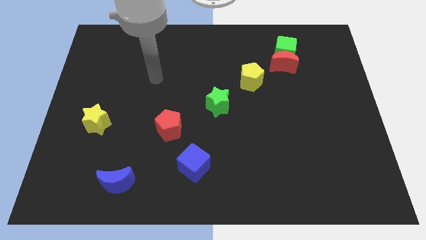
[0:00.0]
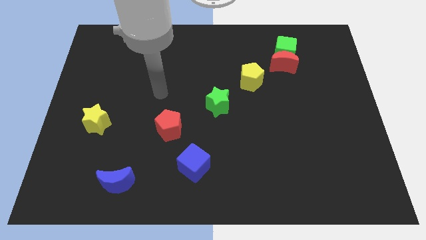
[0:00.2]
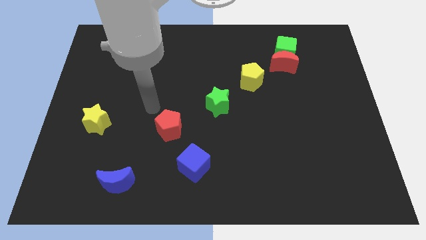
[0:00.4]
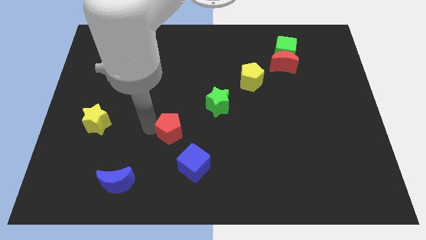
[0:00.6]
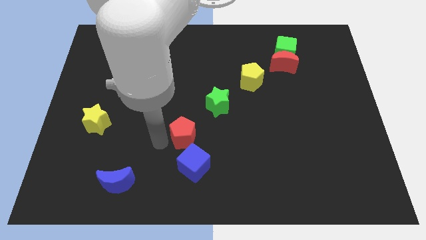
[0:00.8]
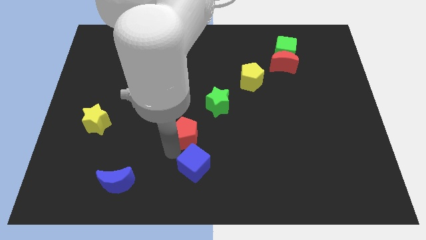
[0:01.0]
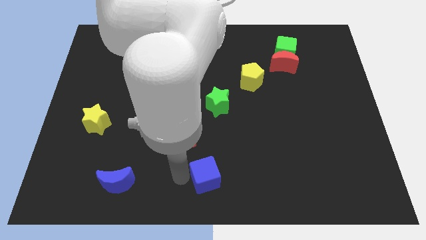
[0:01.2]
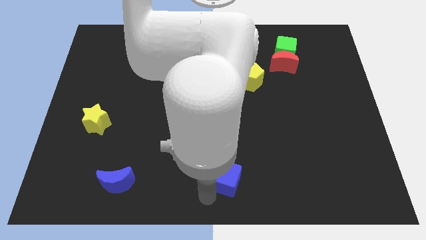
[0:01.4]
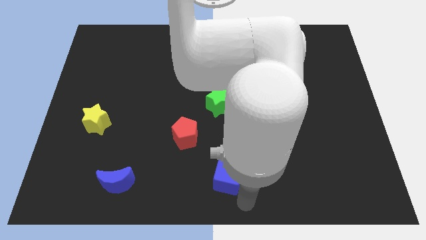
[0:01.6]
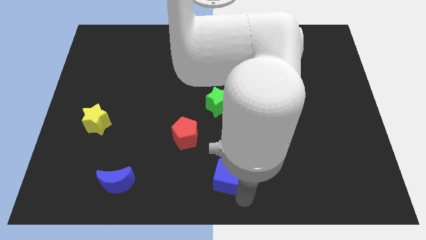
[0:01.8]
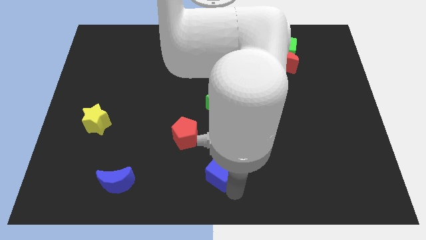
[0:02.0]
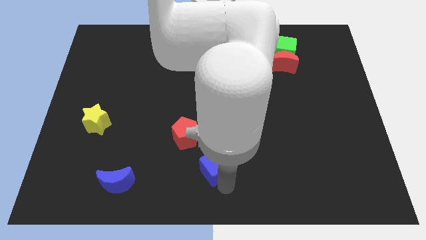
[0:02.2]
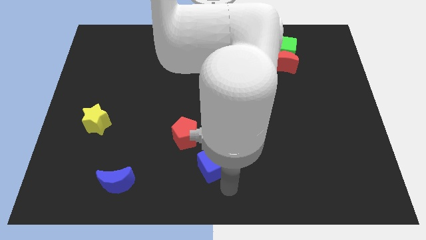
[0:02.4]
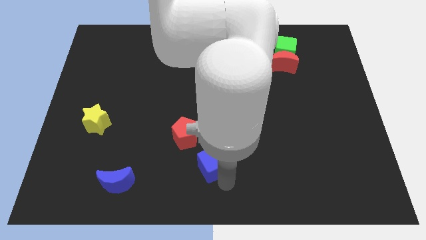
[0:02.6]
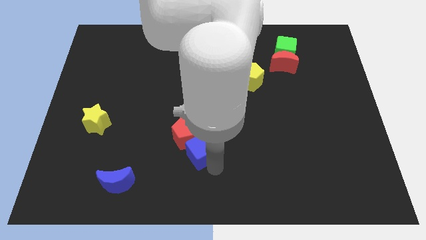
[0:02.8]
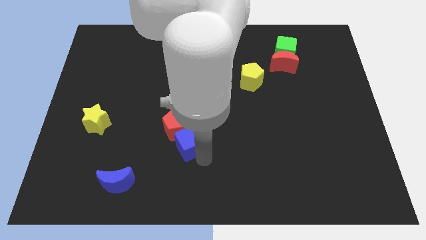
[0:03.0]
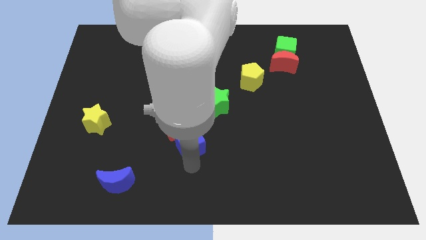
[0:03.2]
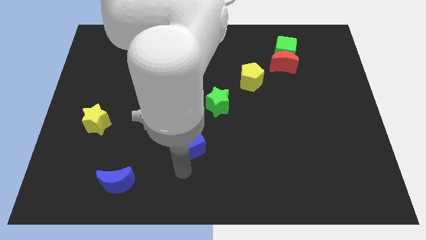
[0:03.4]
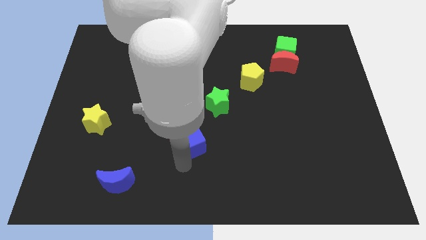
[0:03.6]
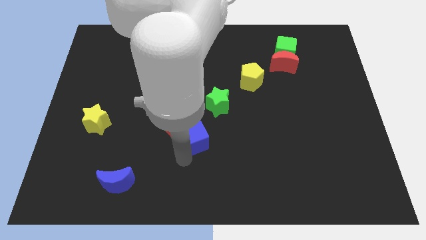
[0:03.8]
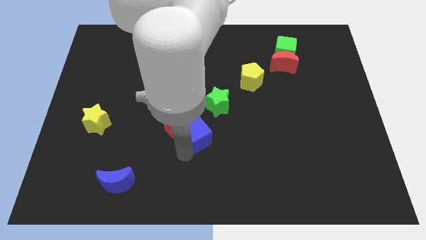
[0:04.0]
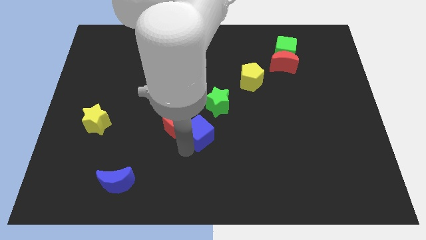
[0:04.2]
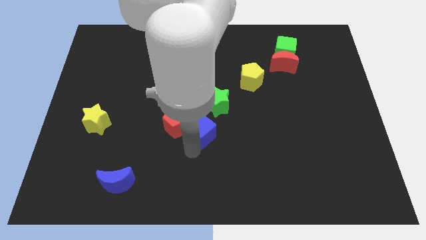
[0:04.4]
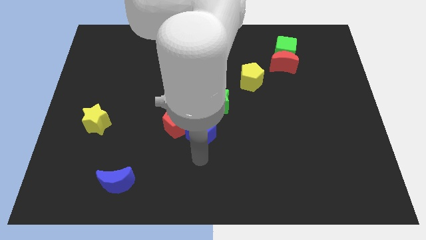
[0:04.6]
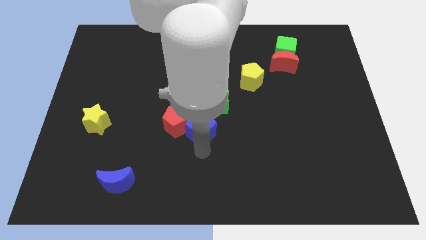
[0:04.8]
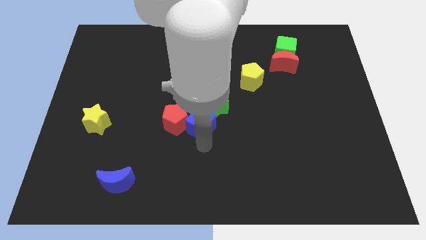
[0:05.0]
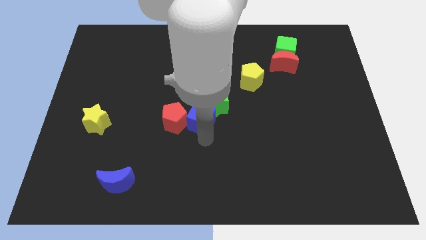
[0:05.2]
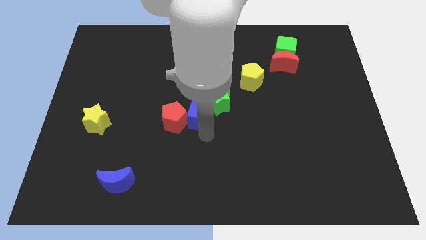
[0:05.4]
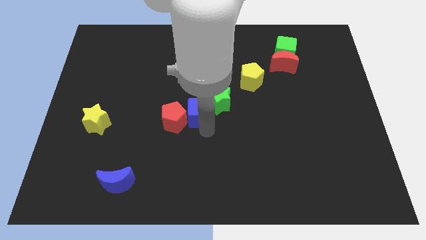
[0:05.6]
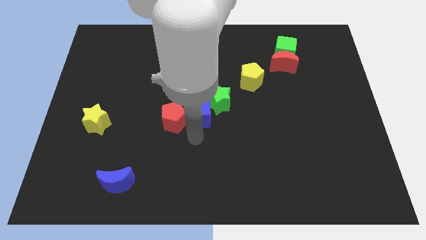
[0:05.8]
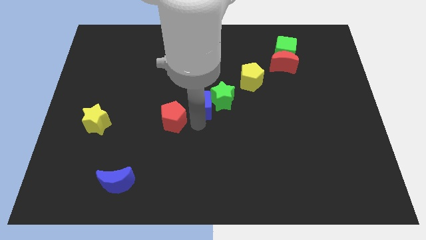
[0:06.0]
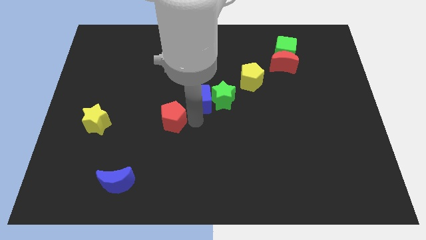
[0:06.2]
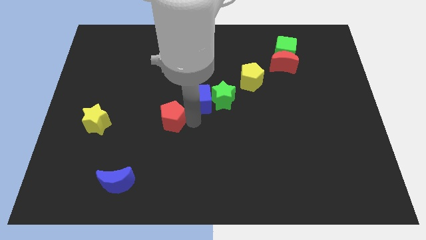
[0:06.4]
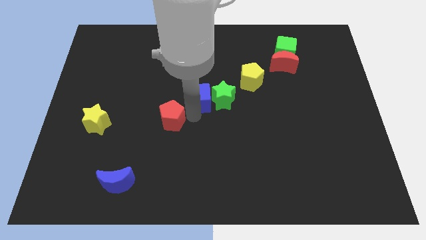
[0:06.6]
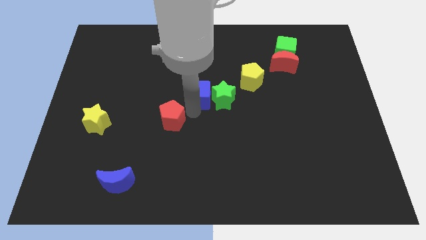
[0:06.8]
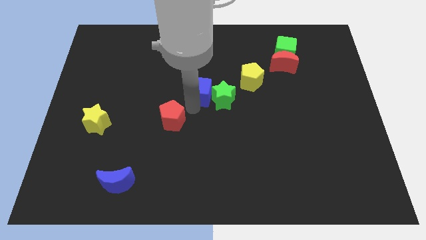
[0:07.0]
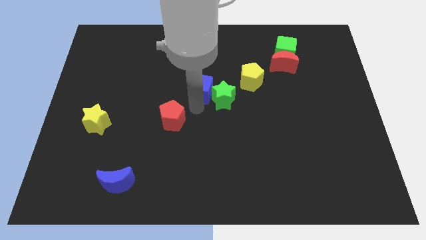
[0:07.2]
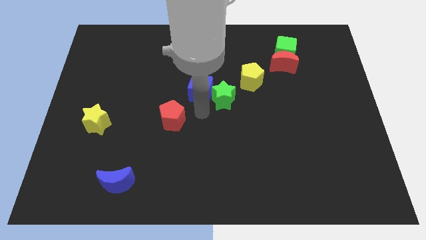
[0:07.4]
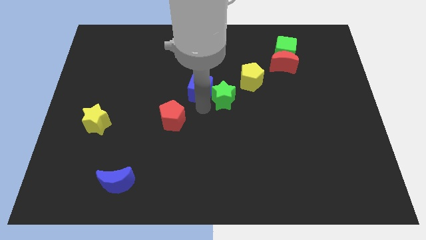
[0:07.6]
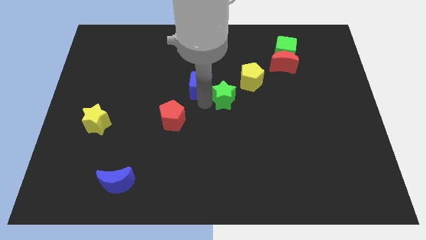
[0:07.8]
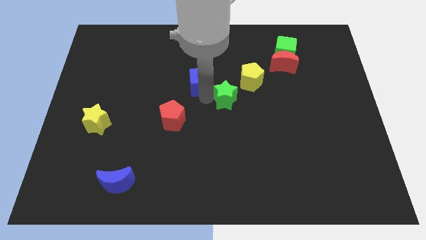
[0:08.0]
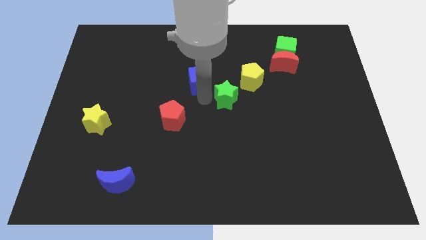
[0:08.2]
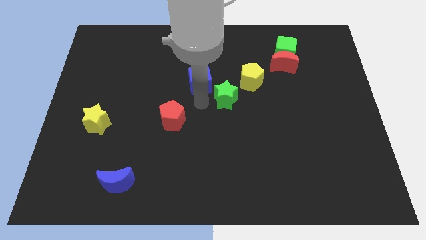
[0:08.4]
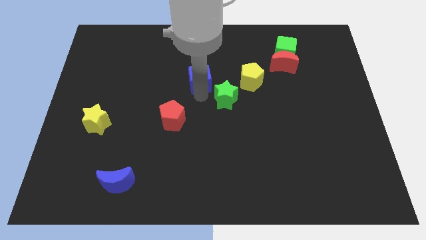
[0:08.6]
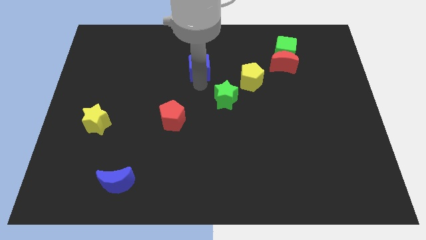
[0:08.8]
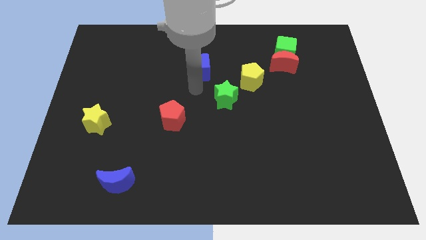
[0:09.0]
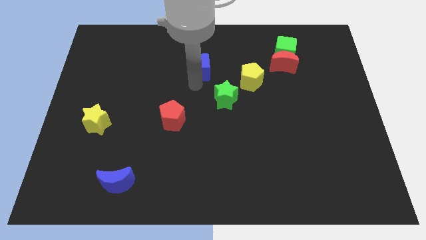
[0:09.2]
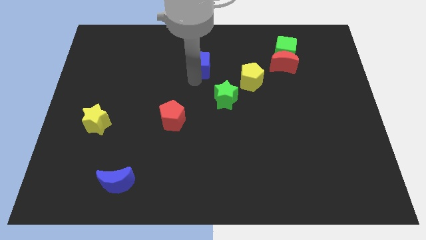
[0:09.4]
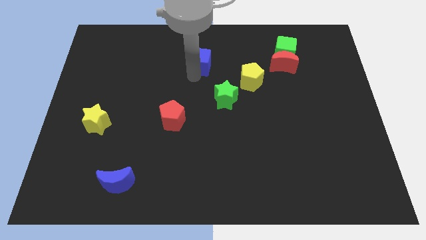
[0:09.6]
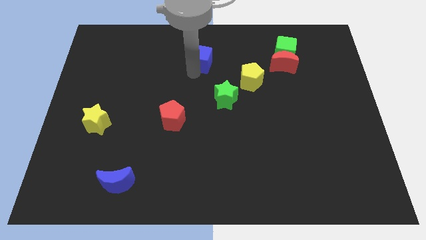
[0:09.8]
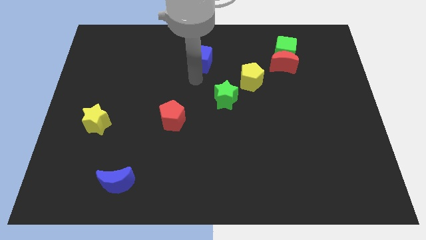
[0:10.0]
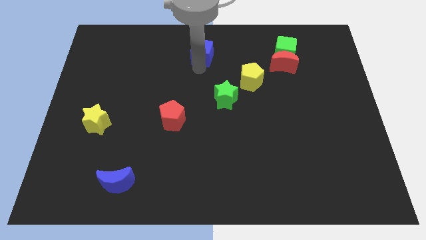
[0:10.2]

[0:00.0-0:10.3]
move the blue cube to the towards your base
